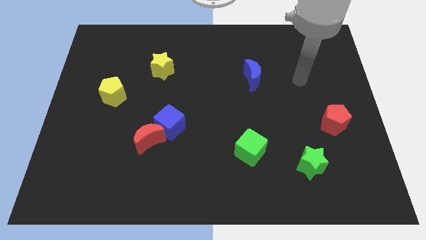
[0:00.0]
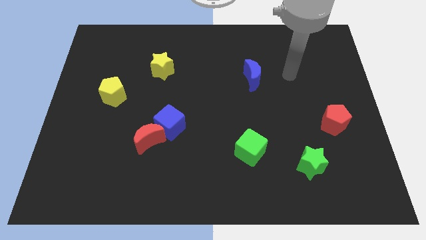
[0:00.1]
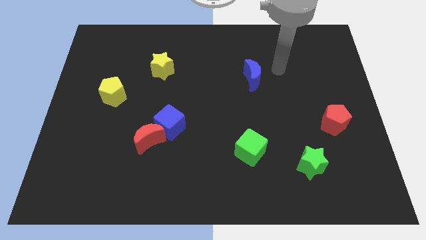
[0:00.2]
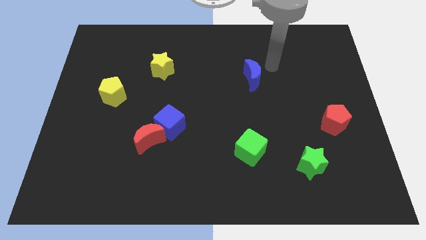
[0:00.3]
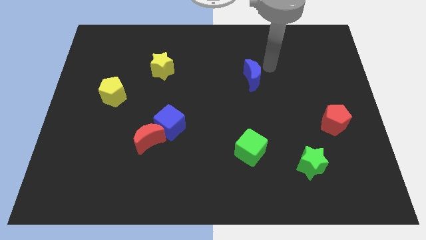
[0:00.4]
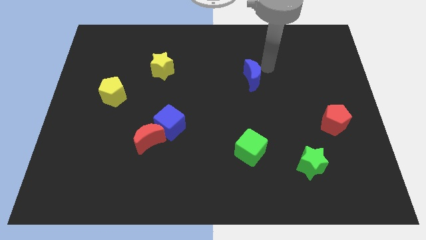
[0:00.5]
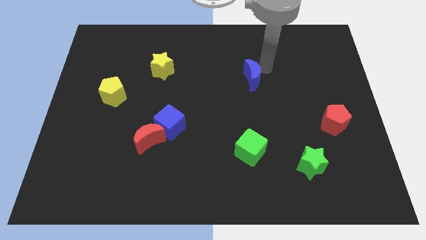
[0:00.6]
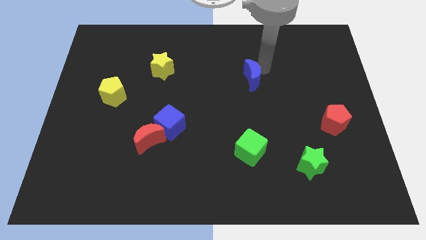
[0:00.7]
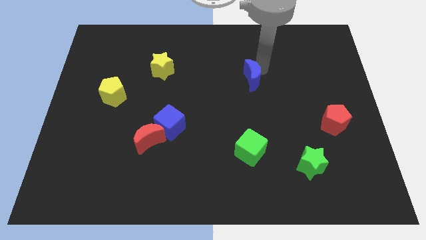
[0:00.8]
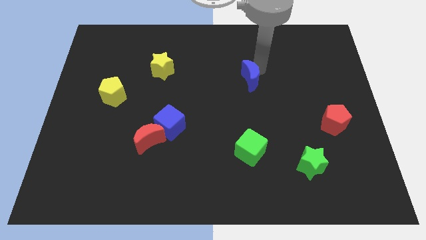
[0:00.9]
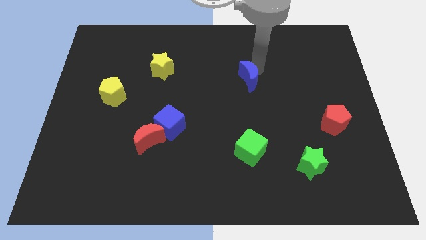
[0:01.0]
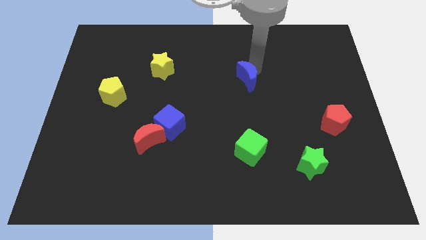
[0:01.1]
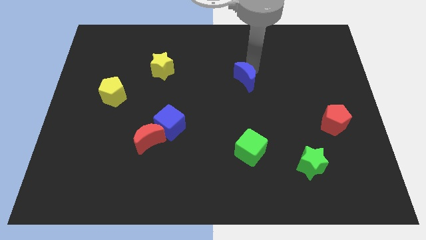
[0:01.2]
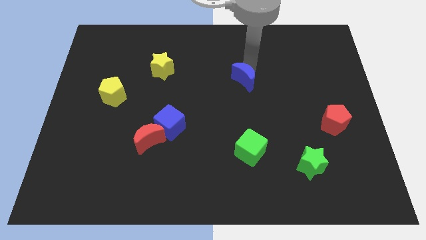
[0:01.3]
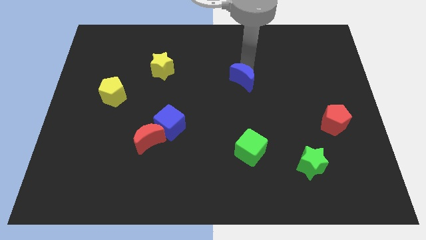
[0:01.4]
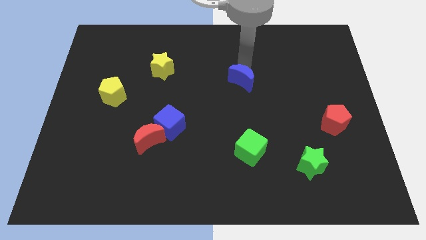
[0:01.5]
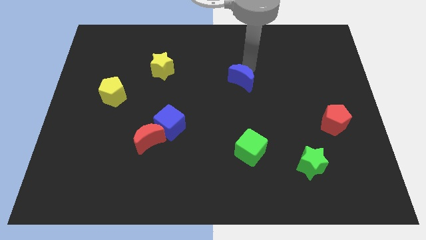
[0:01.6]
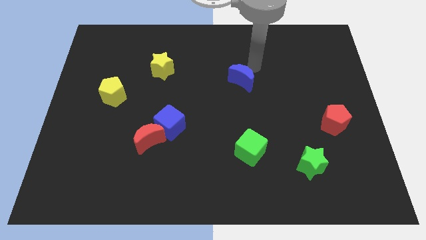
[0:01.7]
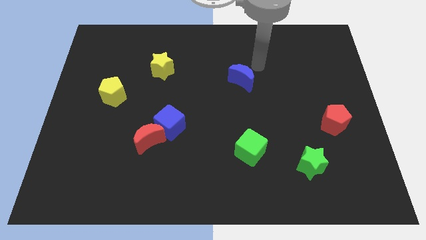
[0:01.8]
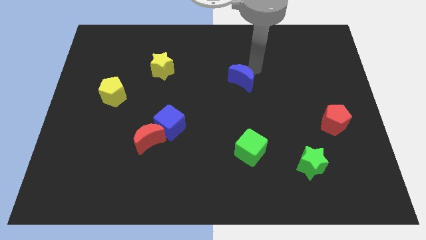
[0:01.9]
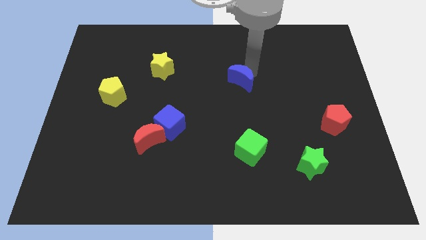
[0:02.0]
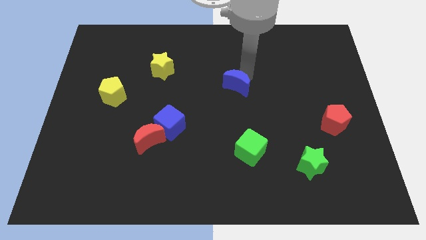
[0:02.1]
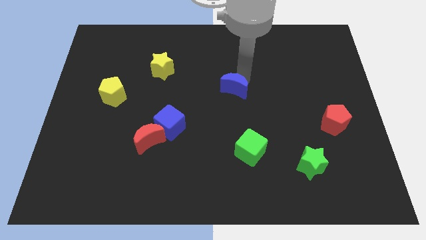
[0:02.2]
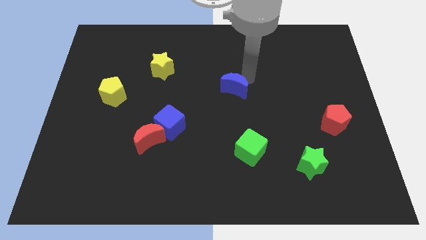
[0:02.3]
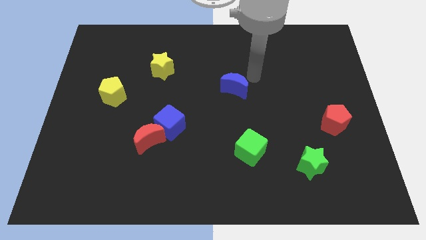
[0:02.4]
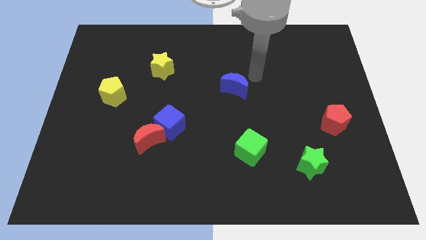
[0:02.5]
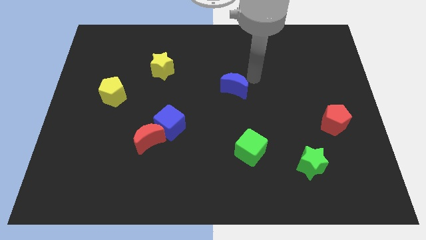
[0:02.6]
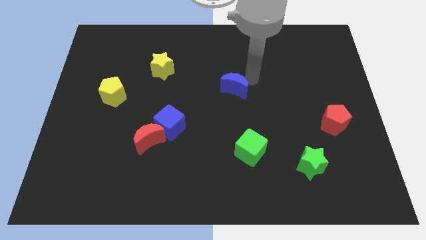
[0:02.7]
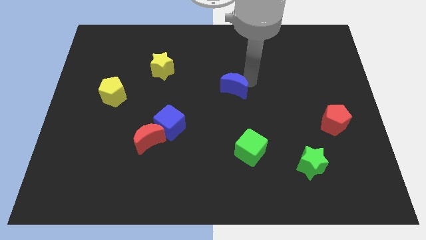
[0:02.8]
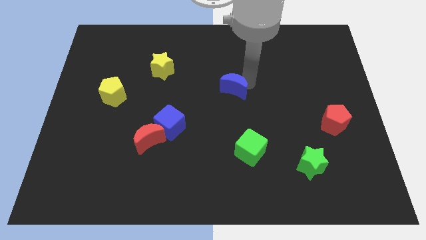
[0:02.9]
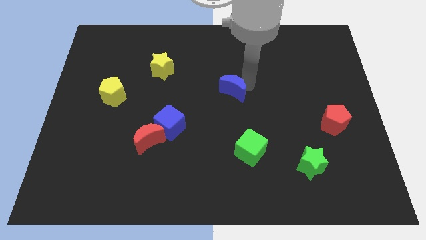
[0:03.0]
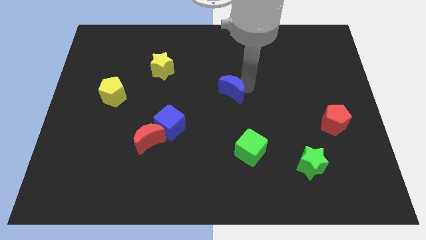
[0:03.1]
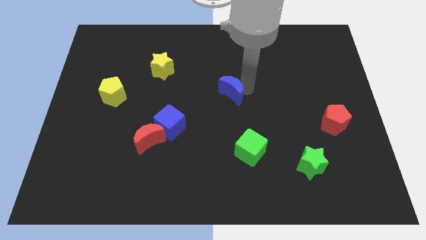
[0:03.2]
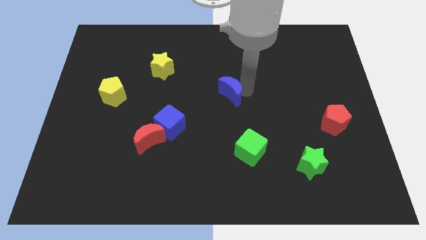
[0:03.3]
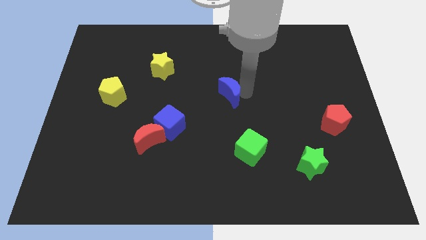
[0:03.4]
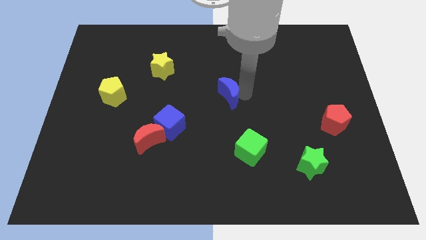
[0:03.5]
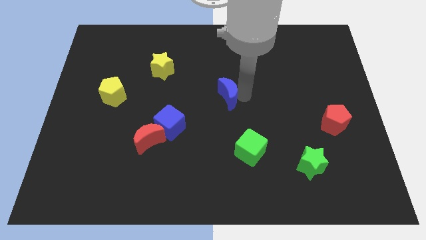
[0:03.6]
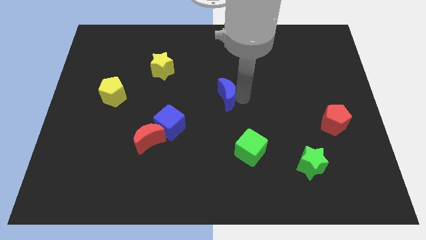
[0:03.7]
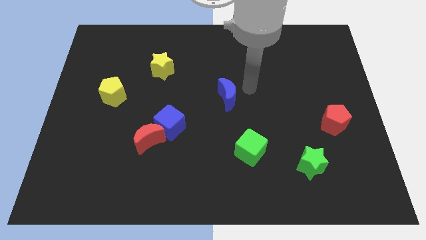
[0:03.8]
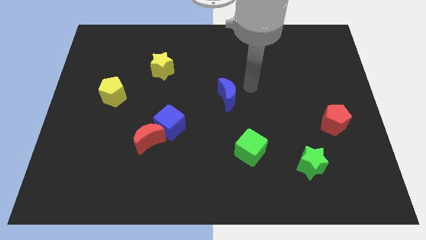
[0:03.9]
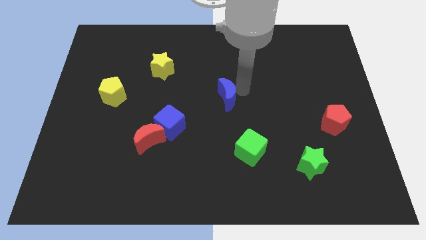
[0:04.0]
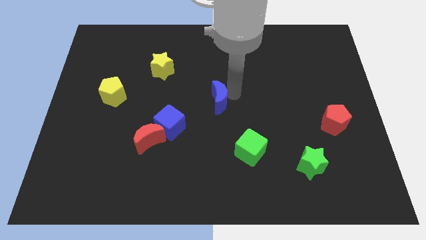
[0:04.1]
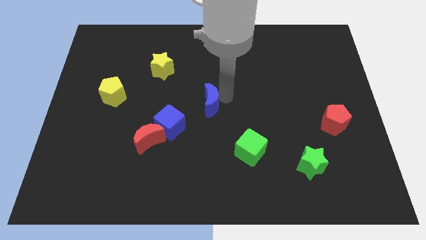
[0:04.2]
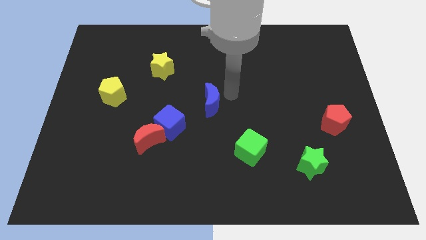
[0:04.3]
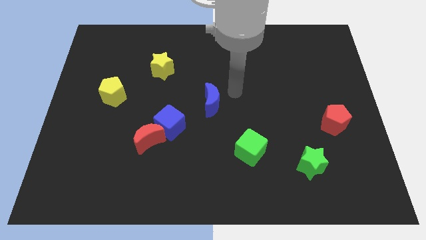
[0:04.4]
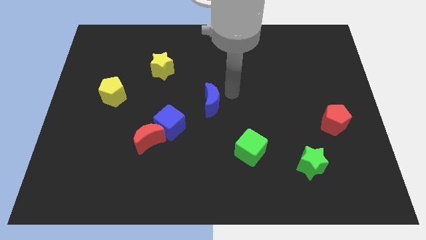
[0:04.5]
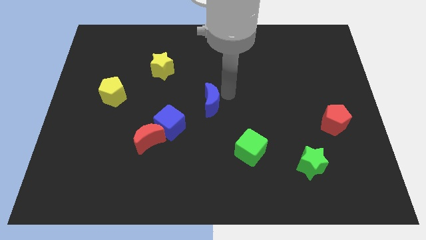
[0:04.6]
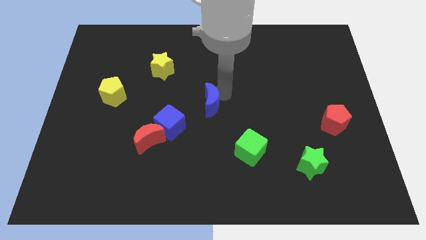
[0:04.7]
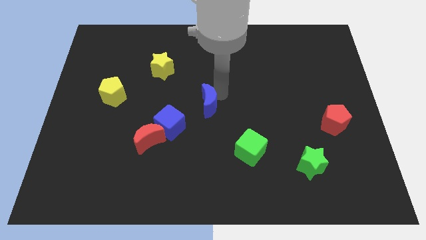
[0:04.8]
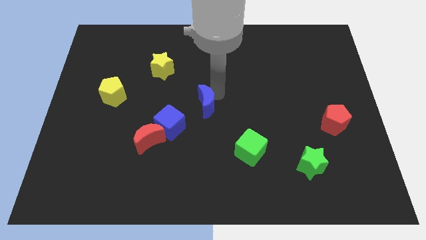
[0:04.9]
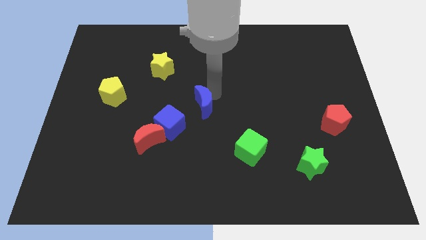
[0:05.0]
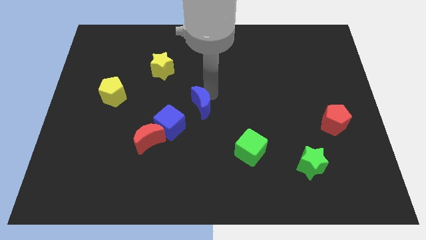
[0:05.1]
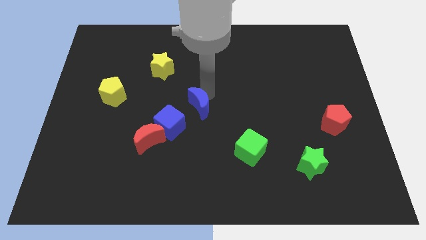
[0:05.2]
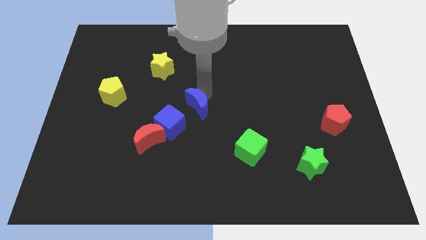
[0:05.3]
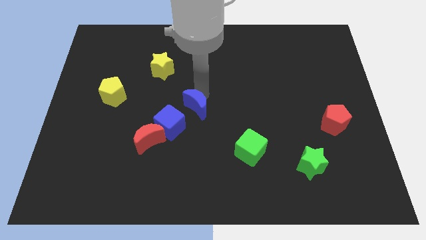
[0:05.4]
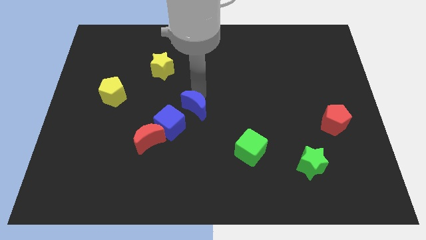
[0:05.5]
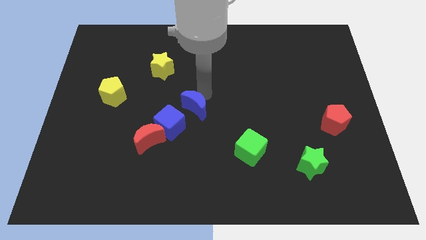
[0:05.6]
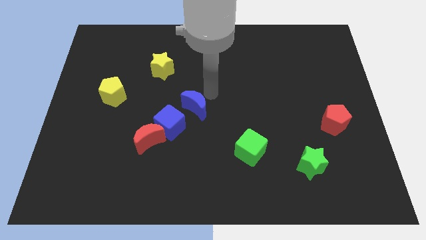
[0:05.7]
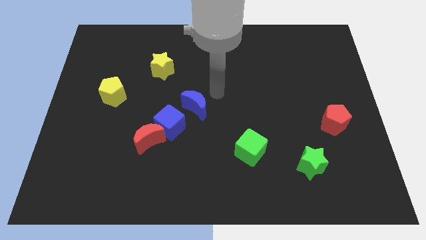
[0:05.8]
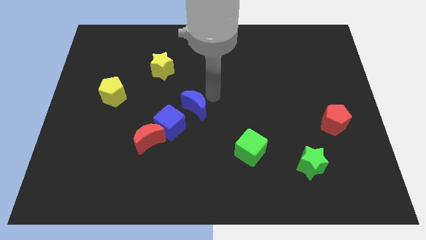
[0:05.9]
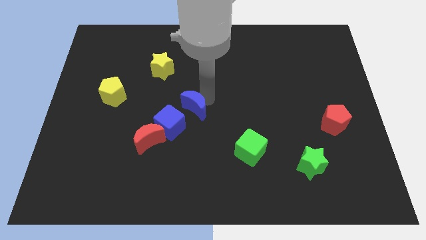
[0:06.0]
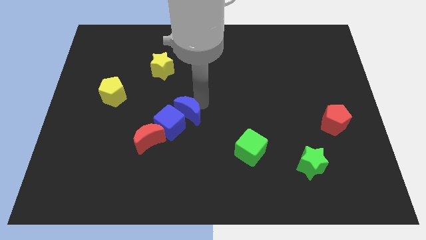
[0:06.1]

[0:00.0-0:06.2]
push the blue moon to the top right side of the red moon
